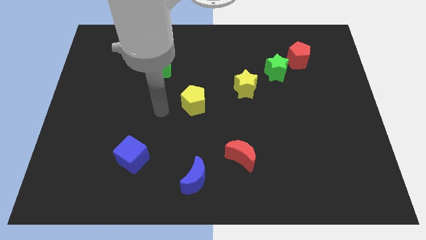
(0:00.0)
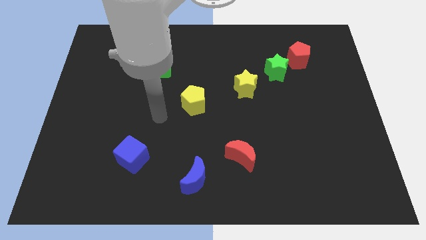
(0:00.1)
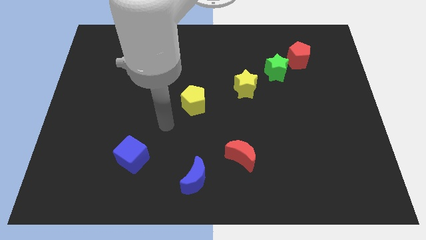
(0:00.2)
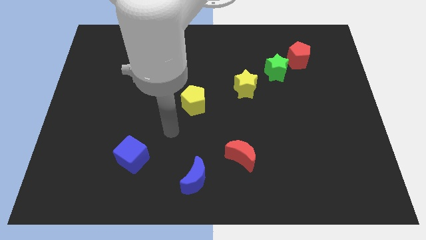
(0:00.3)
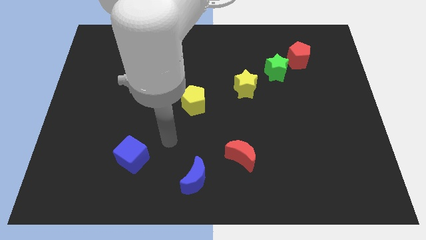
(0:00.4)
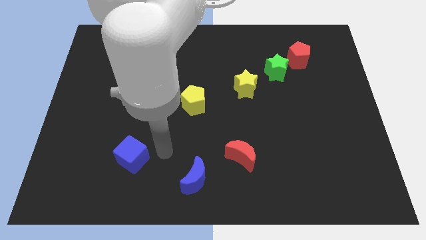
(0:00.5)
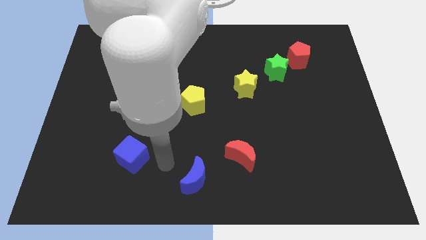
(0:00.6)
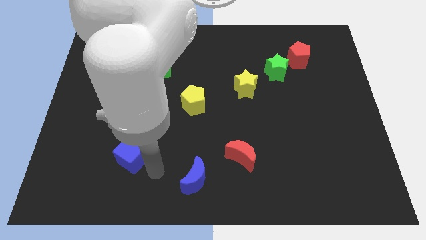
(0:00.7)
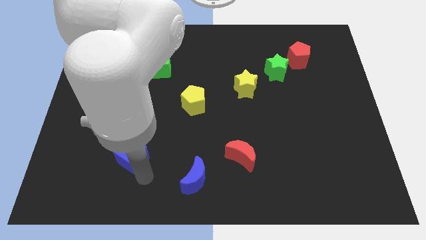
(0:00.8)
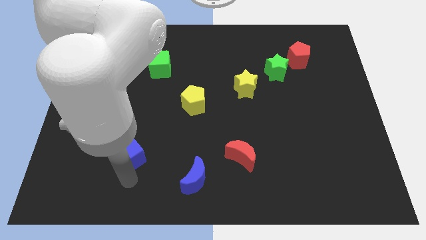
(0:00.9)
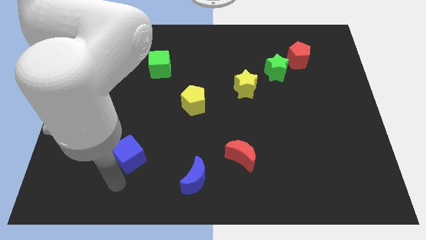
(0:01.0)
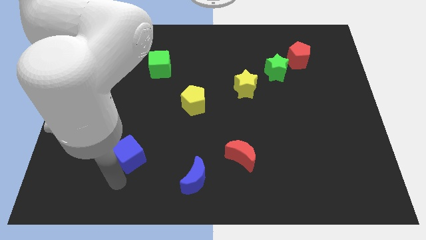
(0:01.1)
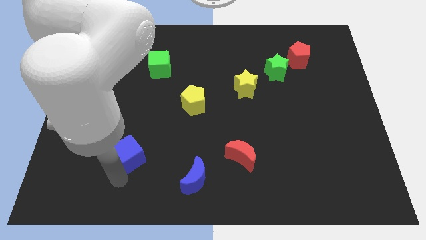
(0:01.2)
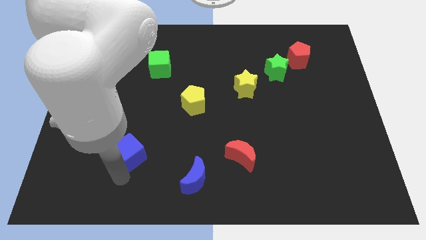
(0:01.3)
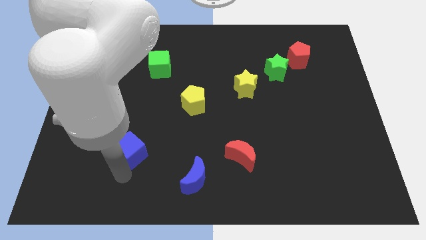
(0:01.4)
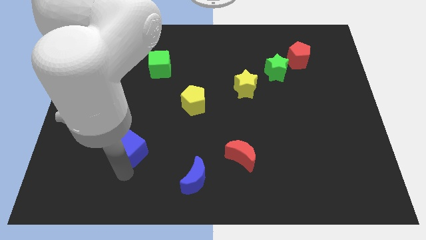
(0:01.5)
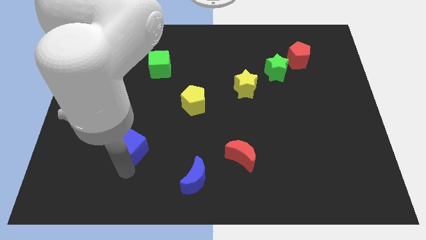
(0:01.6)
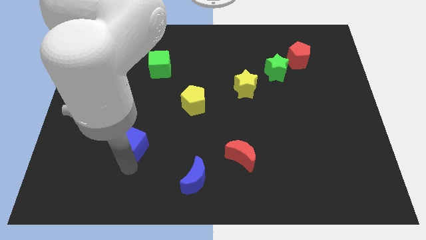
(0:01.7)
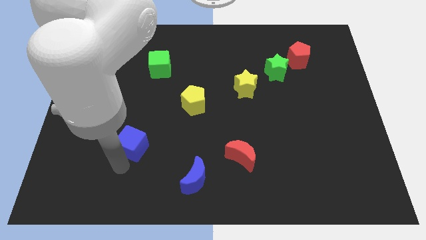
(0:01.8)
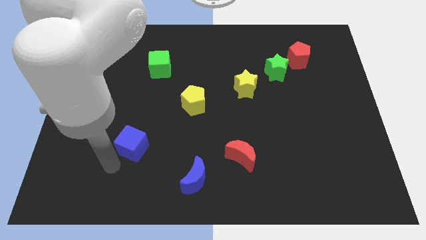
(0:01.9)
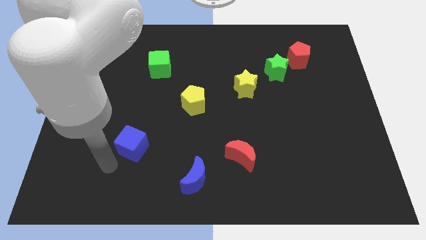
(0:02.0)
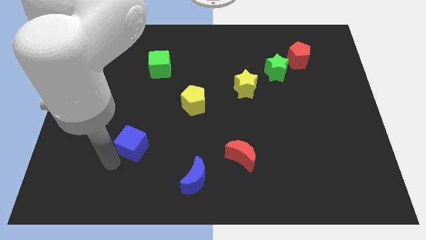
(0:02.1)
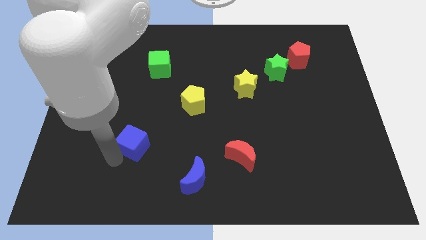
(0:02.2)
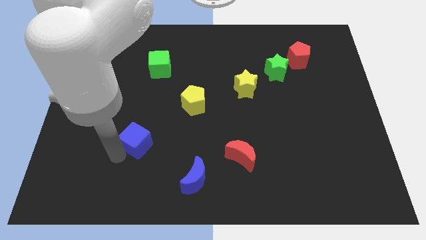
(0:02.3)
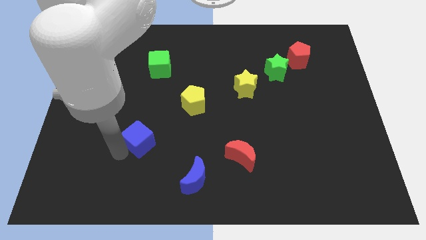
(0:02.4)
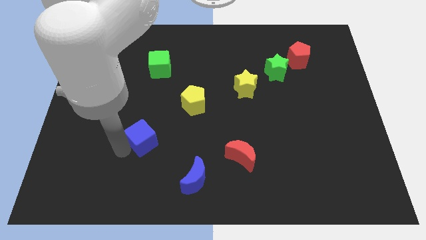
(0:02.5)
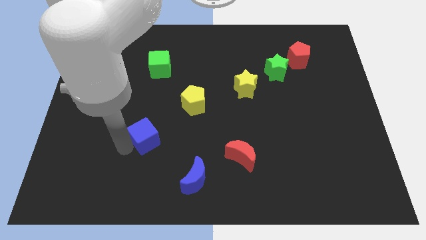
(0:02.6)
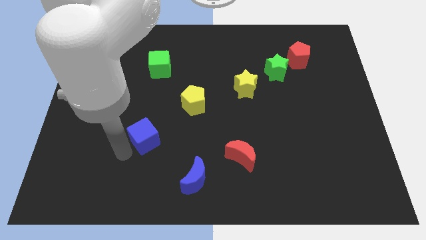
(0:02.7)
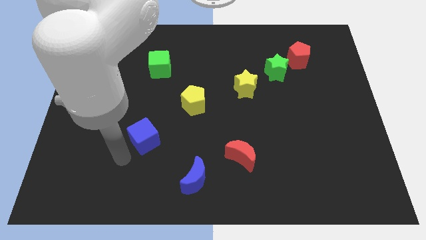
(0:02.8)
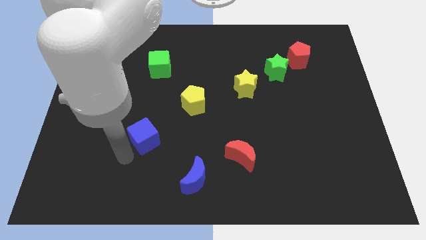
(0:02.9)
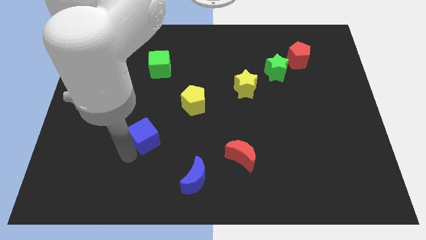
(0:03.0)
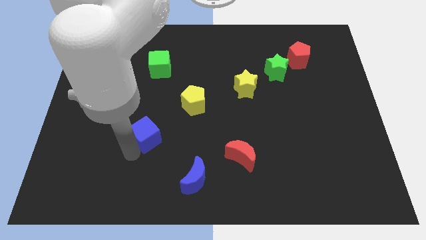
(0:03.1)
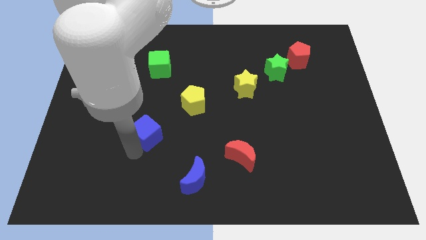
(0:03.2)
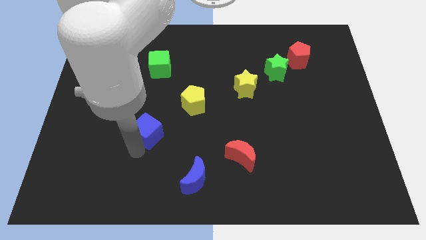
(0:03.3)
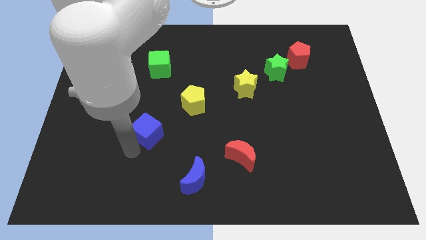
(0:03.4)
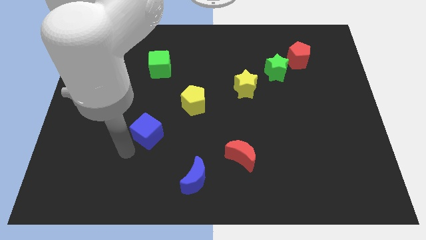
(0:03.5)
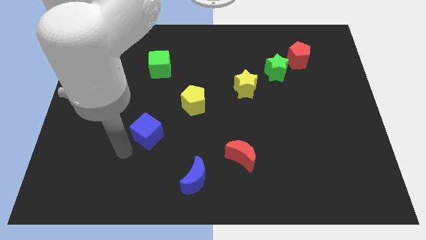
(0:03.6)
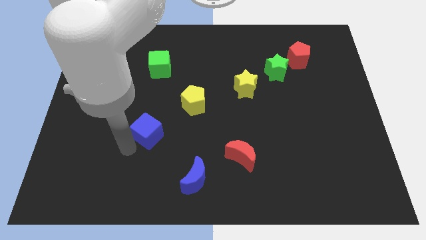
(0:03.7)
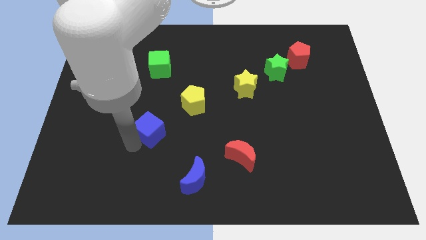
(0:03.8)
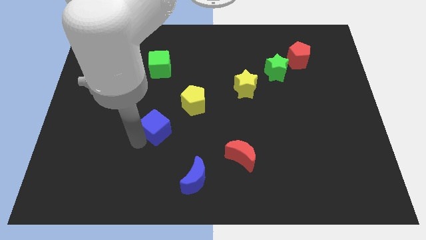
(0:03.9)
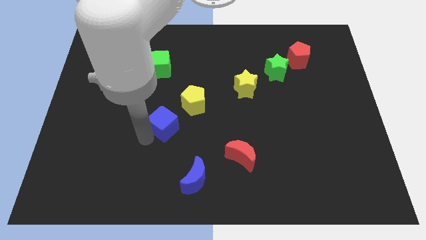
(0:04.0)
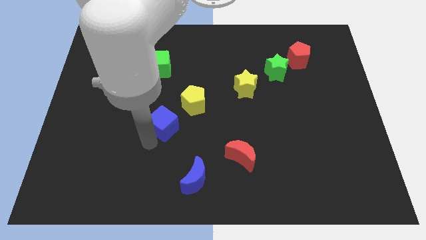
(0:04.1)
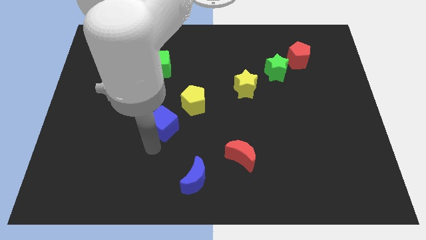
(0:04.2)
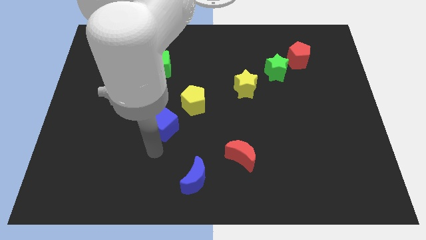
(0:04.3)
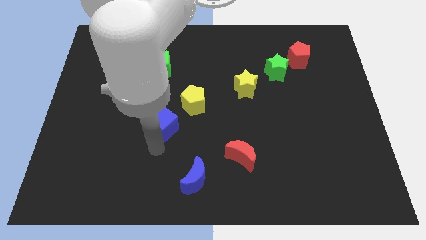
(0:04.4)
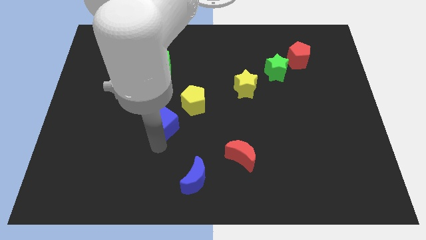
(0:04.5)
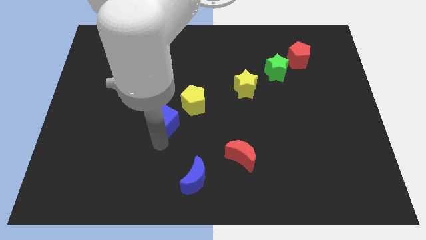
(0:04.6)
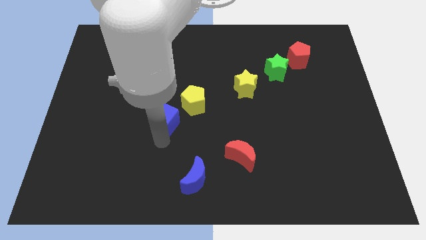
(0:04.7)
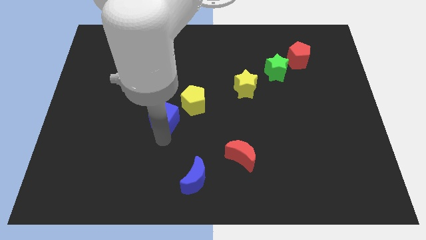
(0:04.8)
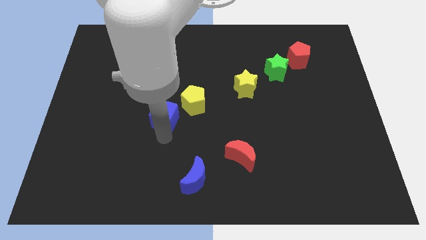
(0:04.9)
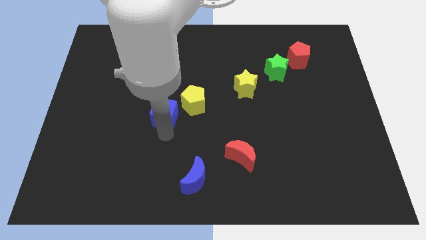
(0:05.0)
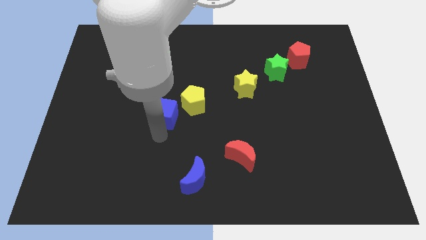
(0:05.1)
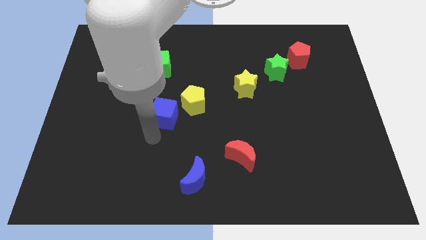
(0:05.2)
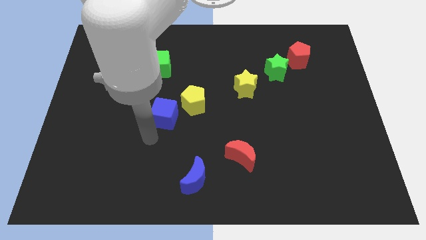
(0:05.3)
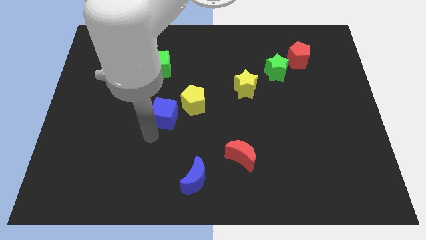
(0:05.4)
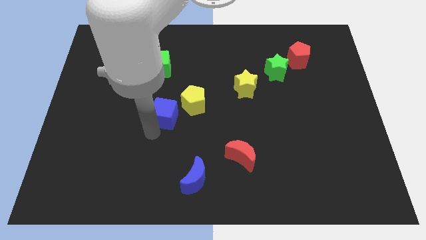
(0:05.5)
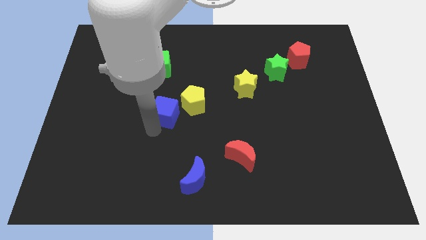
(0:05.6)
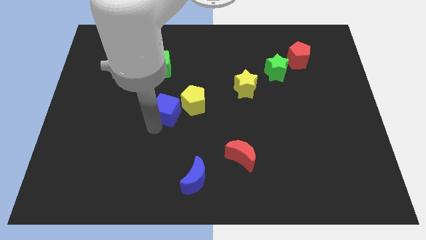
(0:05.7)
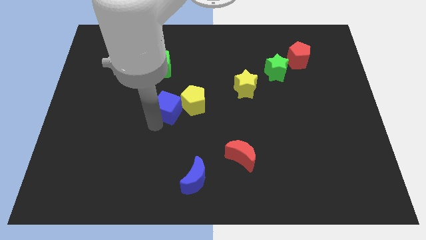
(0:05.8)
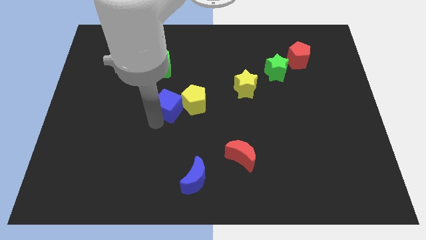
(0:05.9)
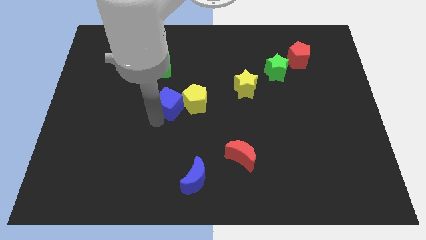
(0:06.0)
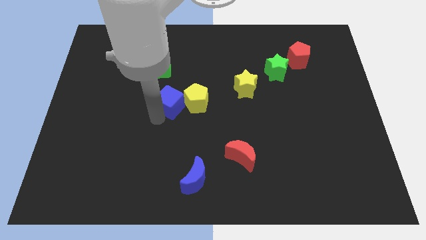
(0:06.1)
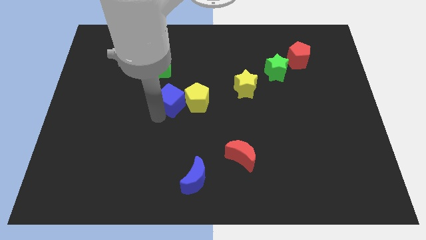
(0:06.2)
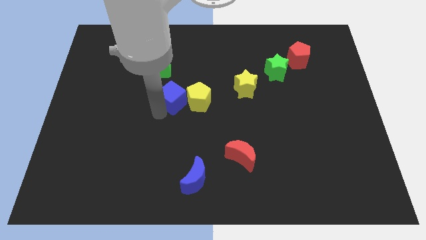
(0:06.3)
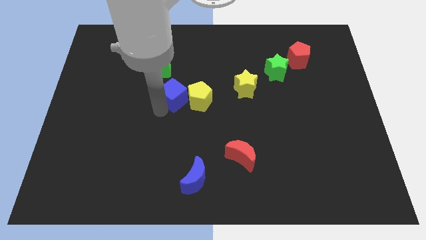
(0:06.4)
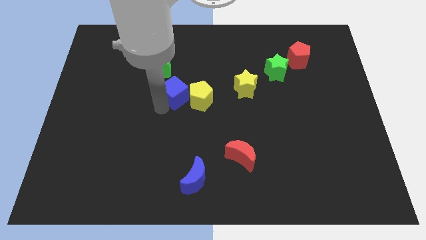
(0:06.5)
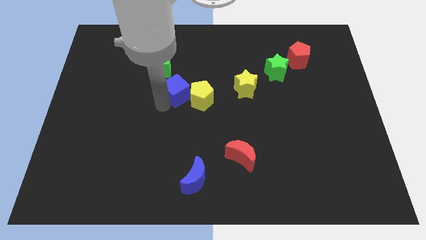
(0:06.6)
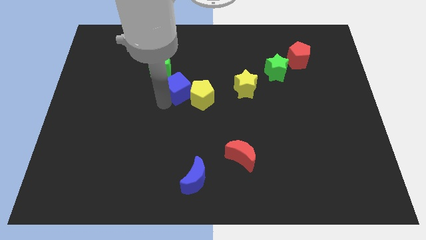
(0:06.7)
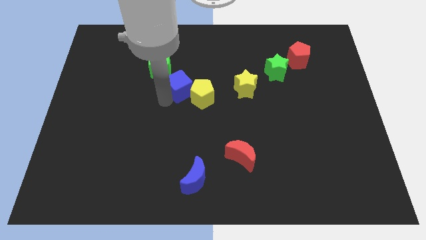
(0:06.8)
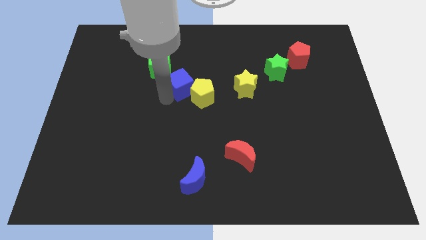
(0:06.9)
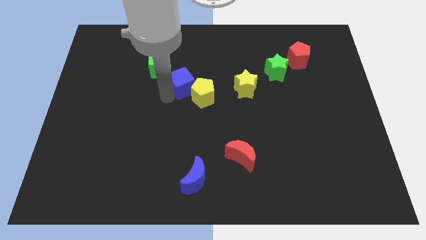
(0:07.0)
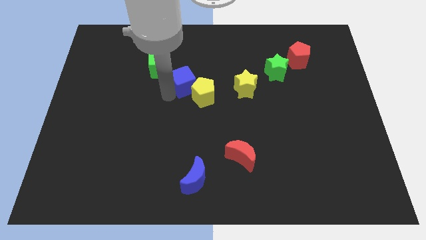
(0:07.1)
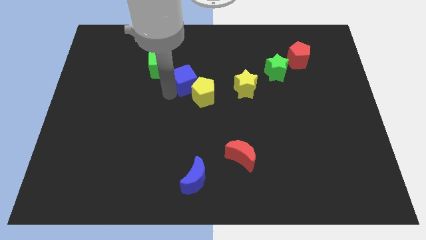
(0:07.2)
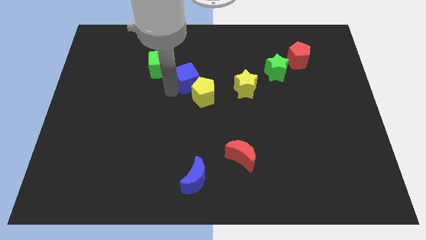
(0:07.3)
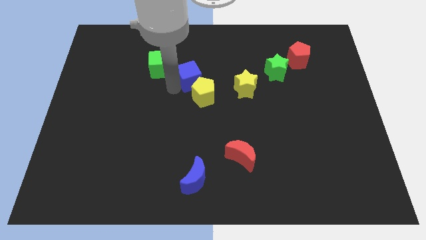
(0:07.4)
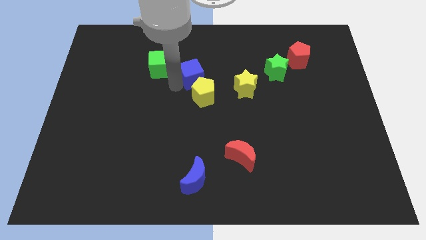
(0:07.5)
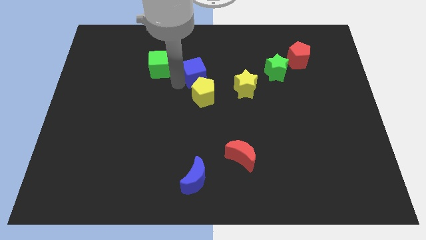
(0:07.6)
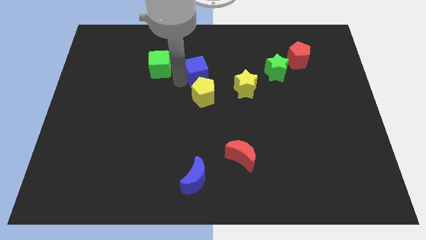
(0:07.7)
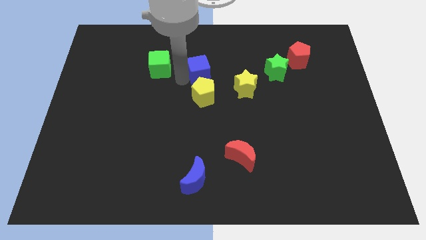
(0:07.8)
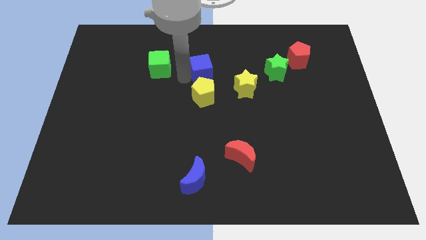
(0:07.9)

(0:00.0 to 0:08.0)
put the blue cube to the top left of the yellow star
